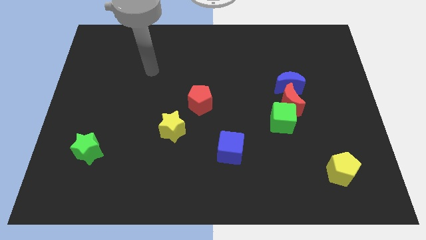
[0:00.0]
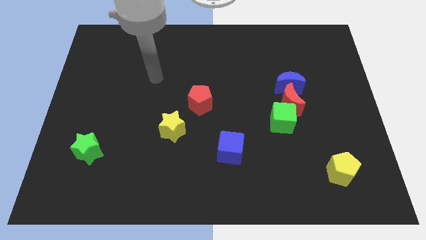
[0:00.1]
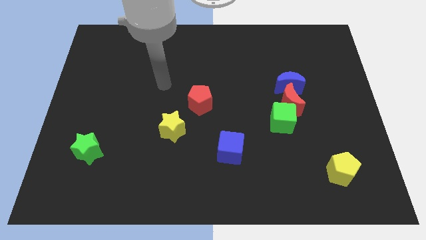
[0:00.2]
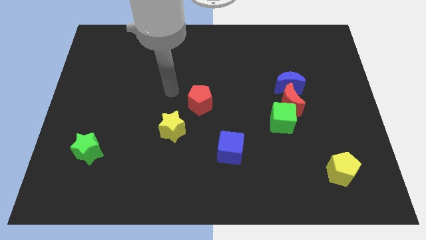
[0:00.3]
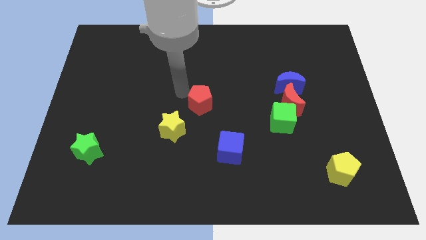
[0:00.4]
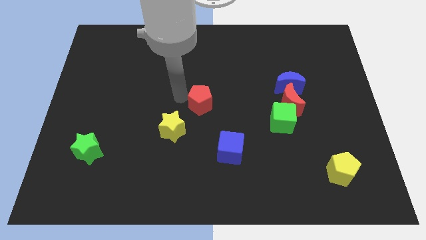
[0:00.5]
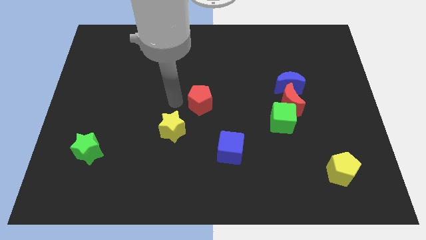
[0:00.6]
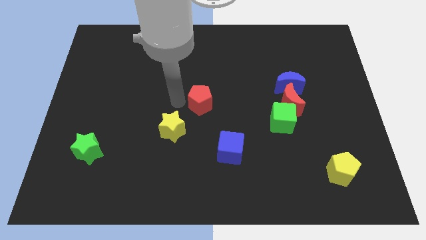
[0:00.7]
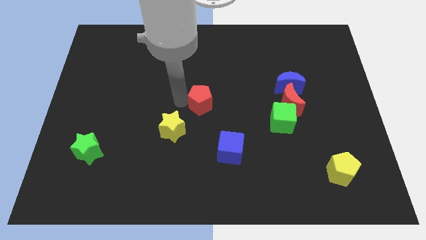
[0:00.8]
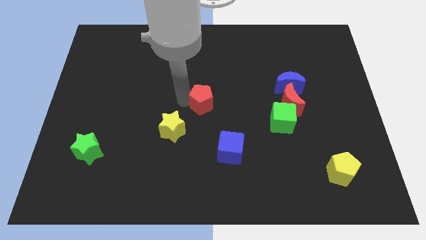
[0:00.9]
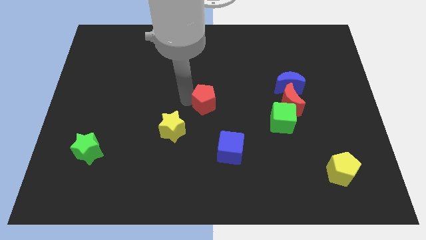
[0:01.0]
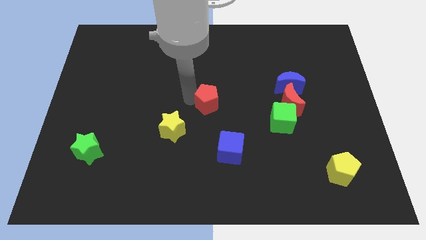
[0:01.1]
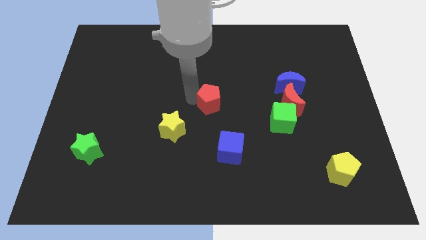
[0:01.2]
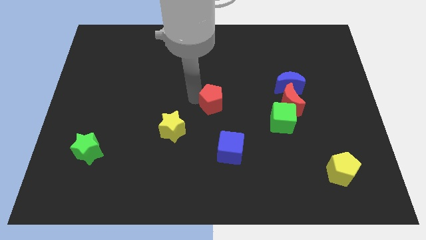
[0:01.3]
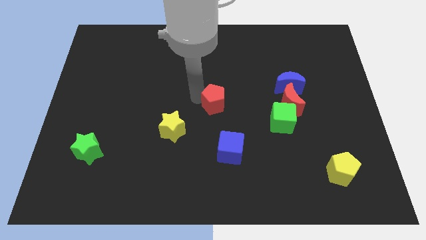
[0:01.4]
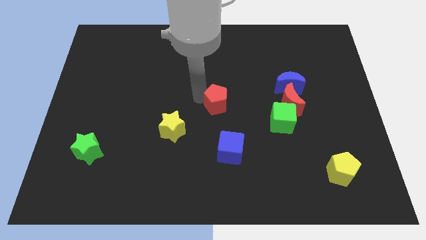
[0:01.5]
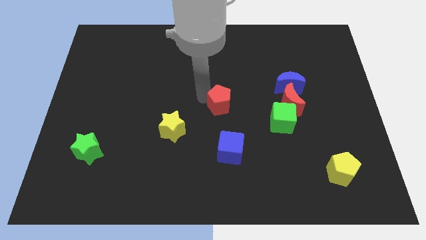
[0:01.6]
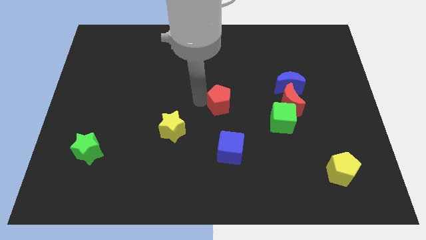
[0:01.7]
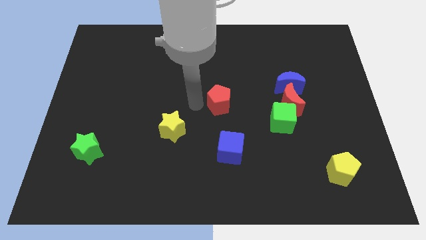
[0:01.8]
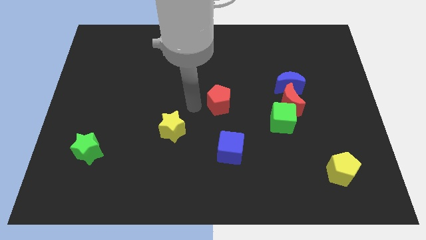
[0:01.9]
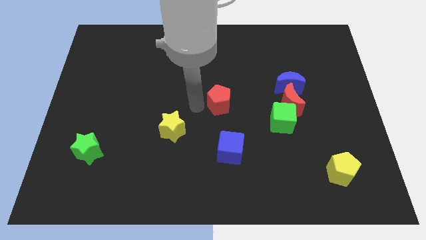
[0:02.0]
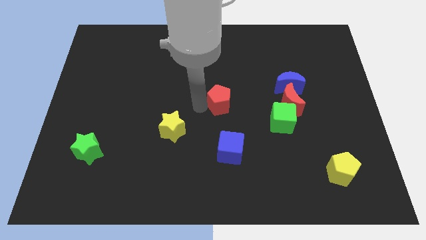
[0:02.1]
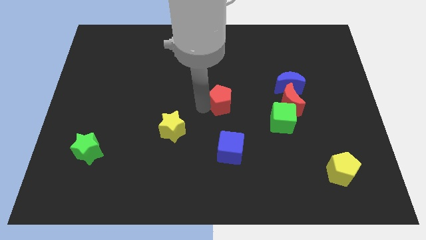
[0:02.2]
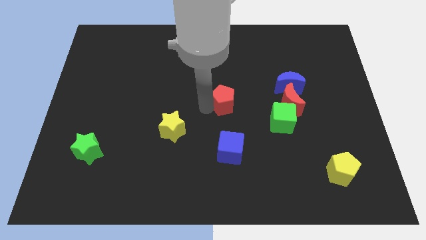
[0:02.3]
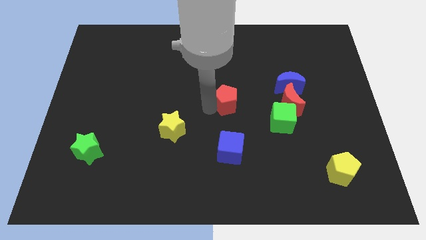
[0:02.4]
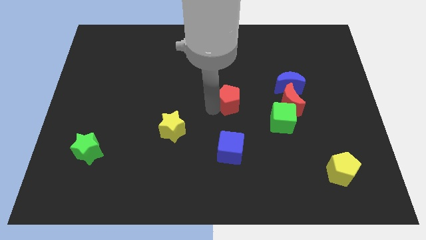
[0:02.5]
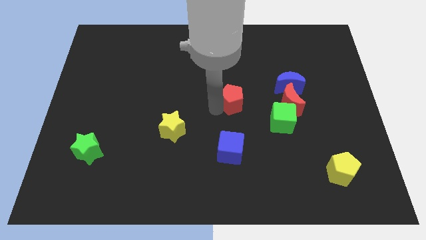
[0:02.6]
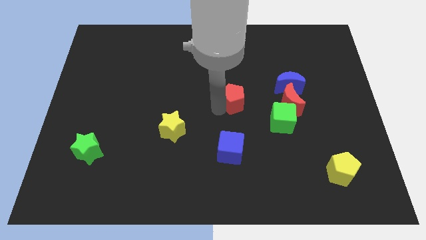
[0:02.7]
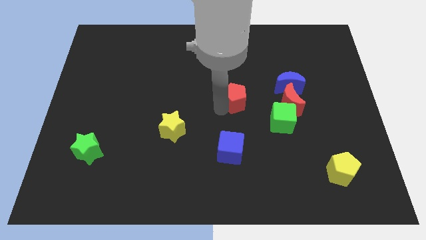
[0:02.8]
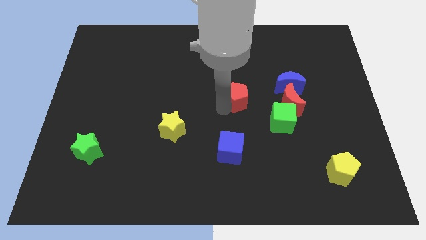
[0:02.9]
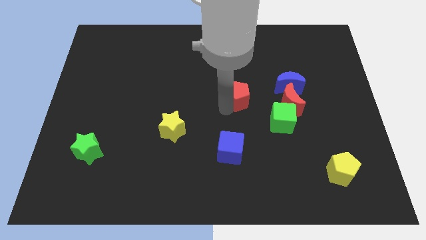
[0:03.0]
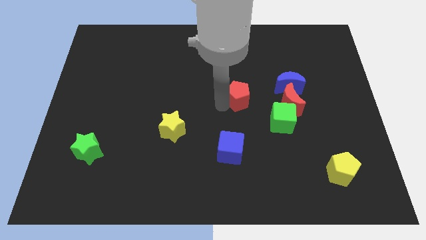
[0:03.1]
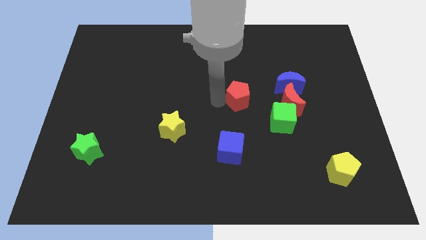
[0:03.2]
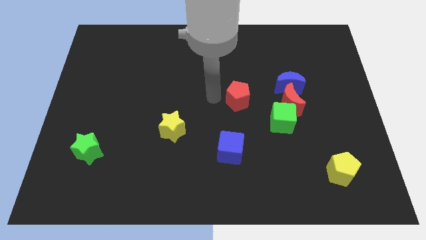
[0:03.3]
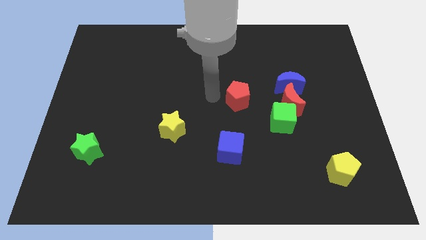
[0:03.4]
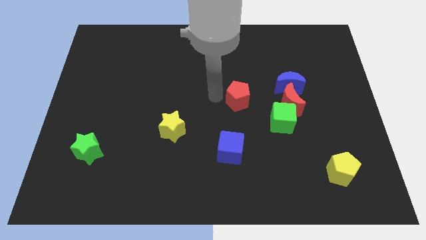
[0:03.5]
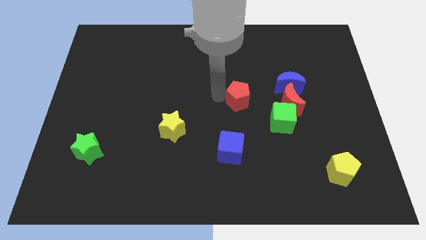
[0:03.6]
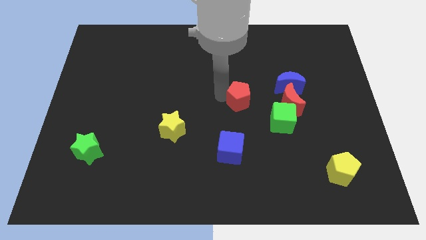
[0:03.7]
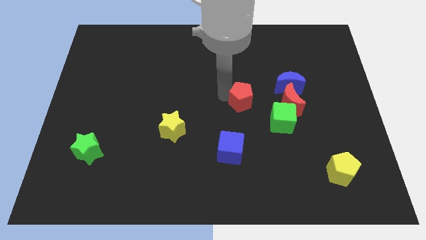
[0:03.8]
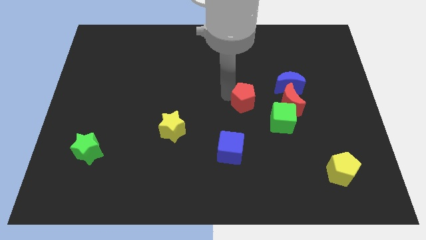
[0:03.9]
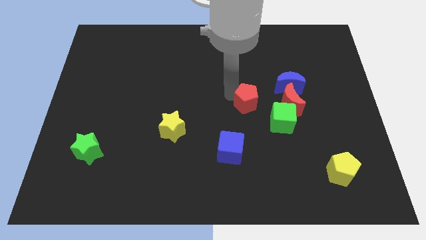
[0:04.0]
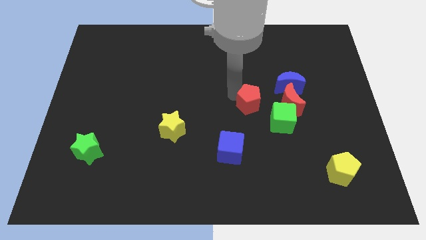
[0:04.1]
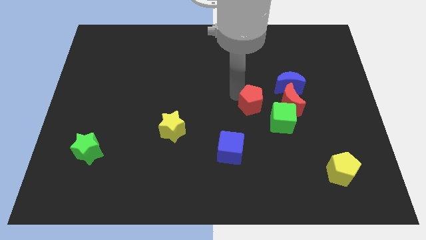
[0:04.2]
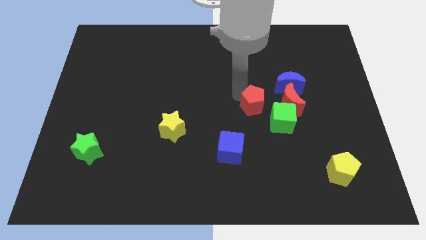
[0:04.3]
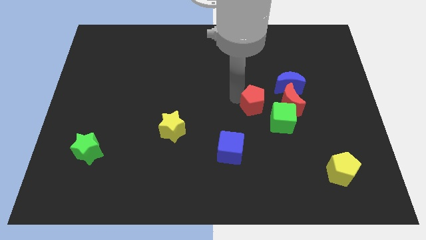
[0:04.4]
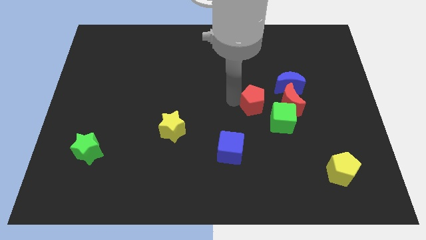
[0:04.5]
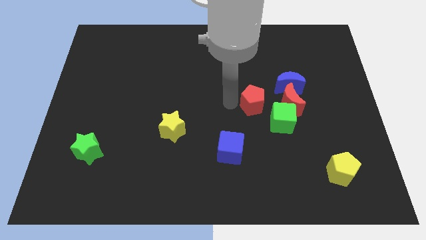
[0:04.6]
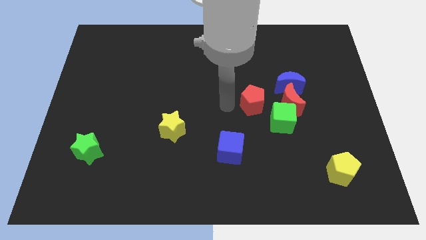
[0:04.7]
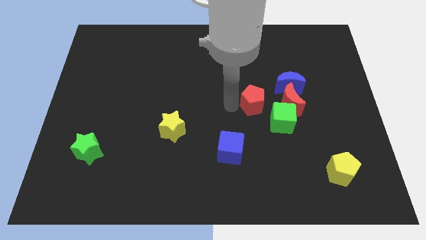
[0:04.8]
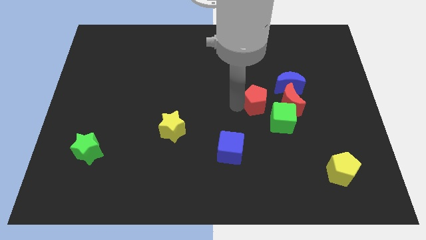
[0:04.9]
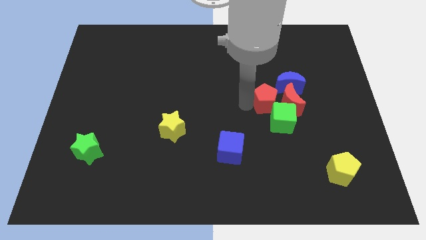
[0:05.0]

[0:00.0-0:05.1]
push the red pentagon towards the red moon

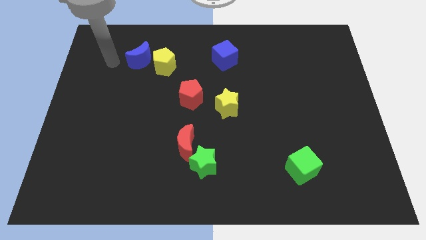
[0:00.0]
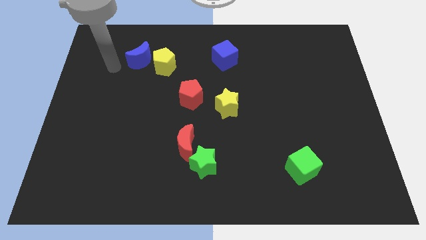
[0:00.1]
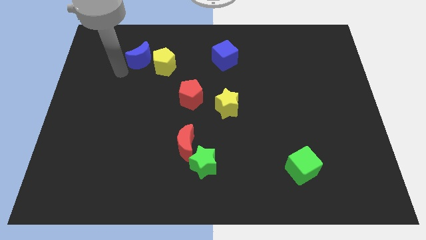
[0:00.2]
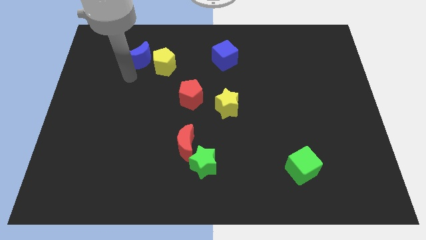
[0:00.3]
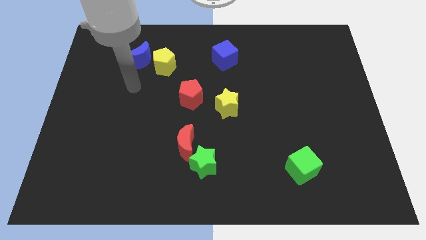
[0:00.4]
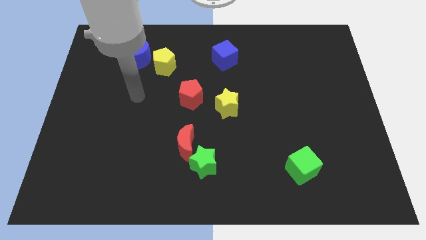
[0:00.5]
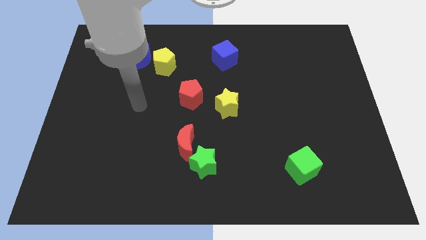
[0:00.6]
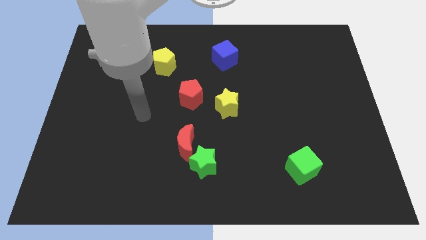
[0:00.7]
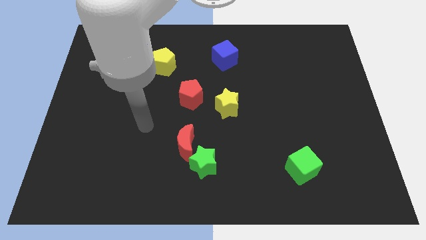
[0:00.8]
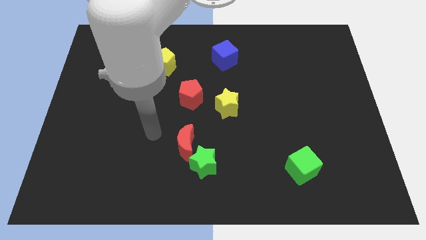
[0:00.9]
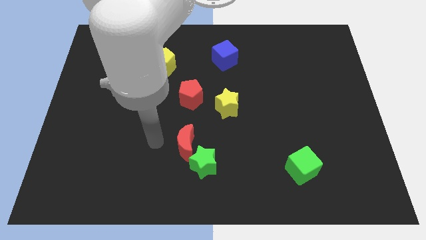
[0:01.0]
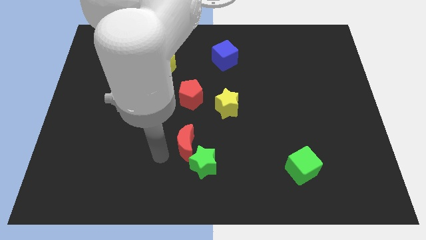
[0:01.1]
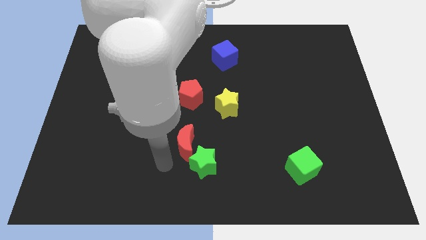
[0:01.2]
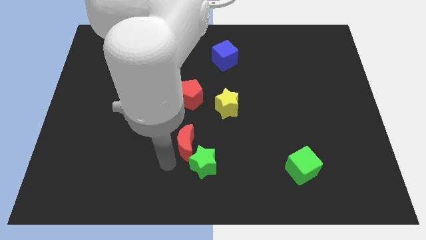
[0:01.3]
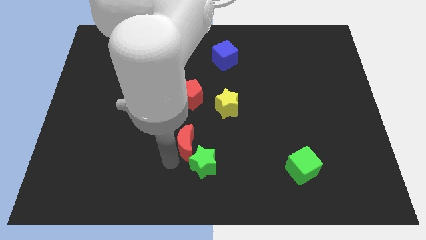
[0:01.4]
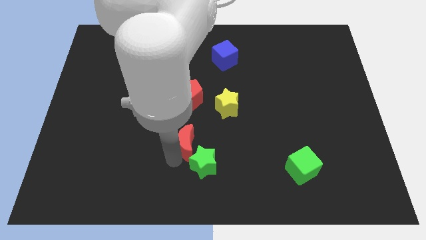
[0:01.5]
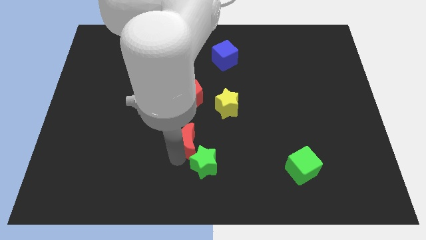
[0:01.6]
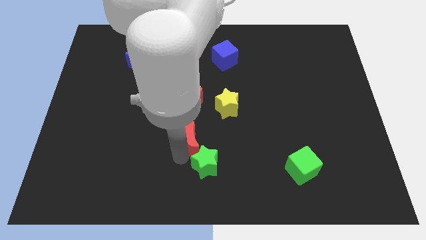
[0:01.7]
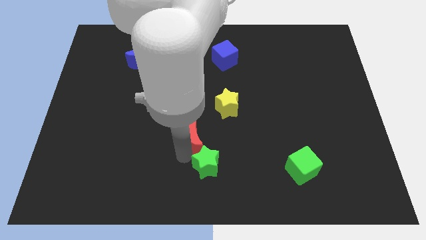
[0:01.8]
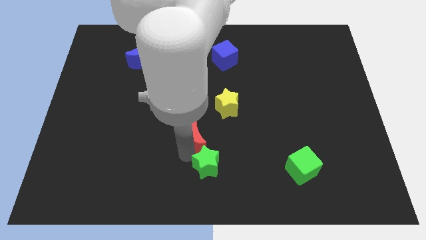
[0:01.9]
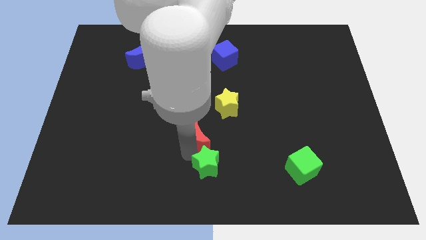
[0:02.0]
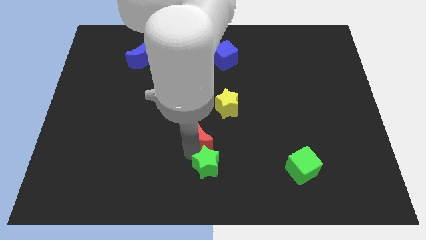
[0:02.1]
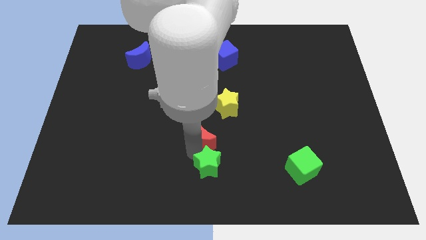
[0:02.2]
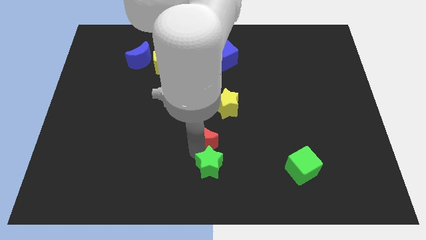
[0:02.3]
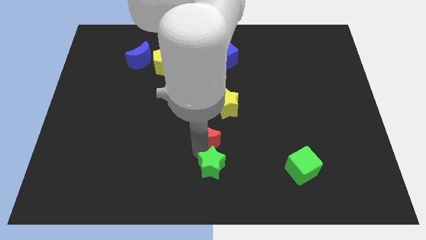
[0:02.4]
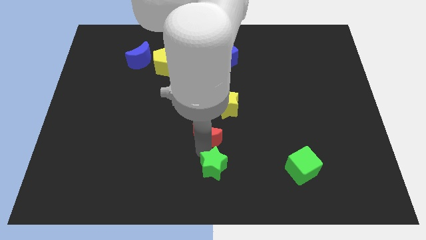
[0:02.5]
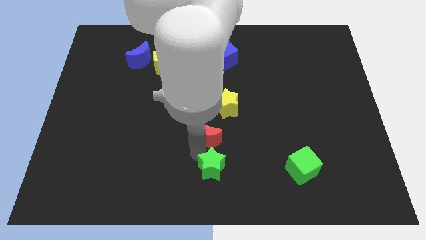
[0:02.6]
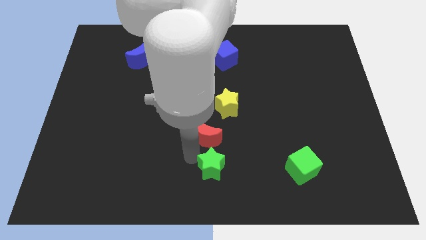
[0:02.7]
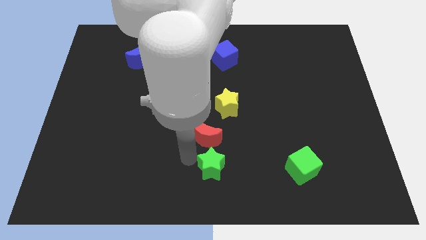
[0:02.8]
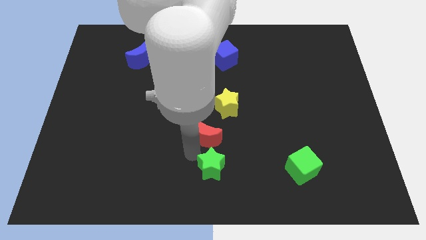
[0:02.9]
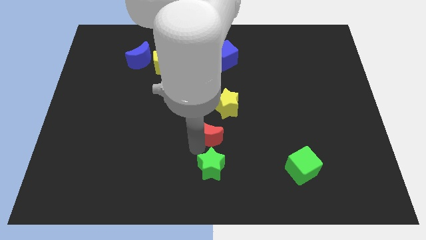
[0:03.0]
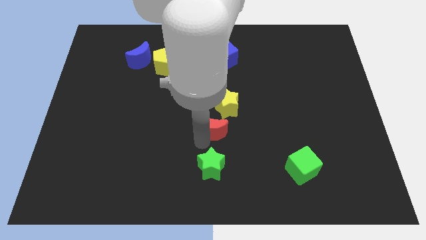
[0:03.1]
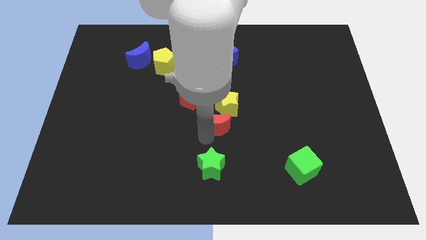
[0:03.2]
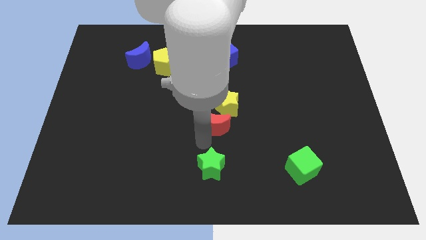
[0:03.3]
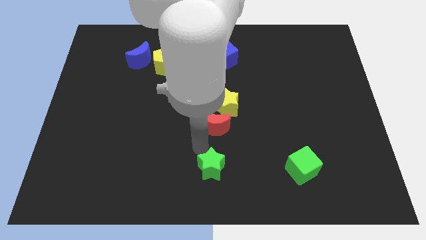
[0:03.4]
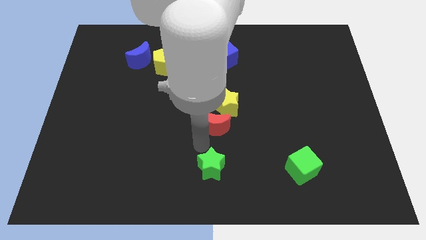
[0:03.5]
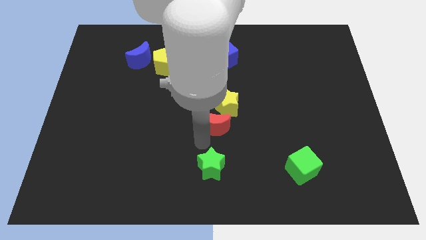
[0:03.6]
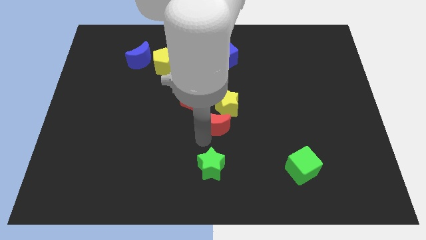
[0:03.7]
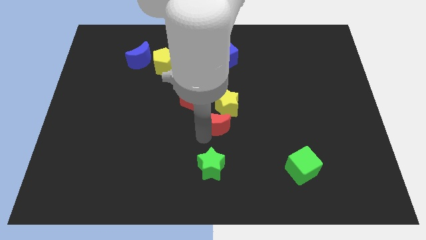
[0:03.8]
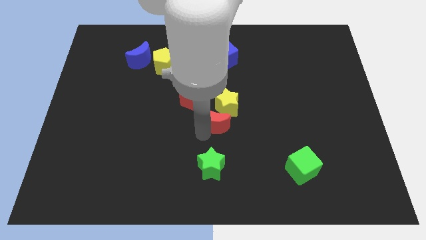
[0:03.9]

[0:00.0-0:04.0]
move the red moon next to the yellow star
